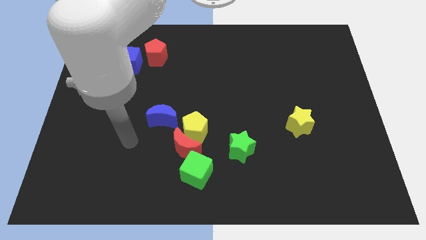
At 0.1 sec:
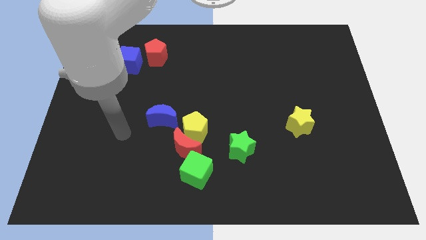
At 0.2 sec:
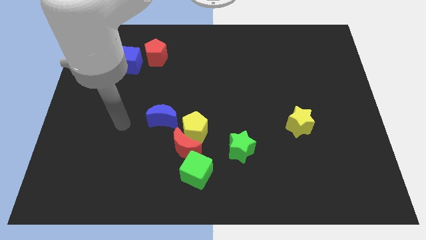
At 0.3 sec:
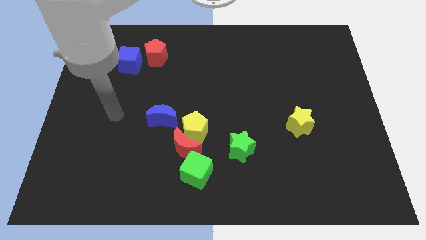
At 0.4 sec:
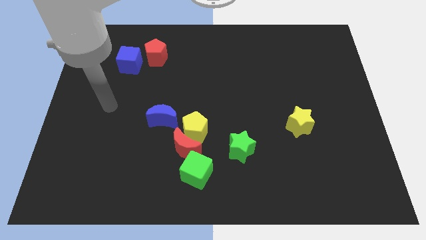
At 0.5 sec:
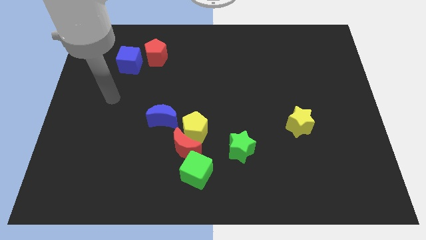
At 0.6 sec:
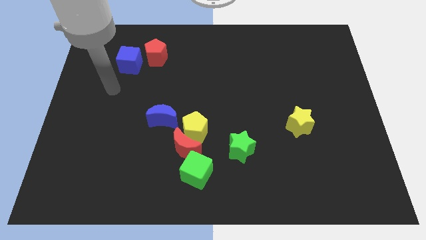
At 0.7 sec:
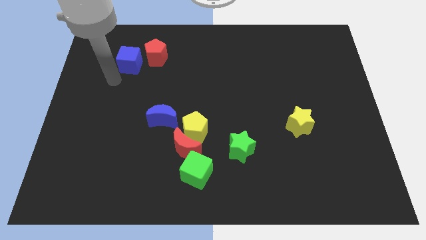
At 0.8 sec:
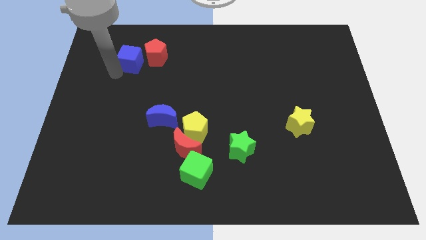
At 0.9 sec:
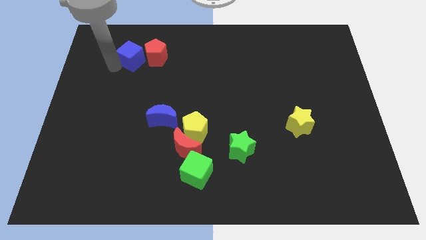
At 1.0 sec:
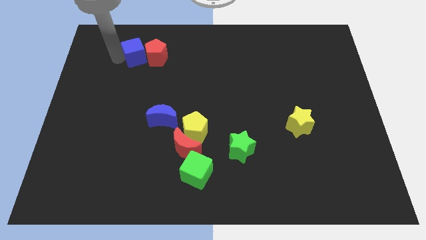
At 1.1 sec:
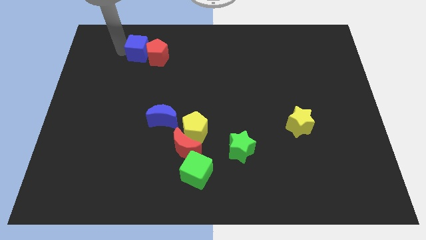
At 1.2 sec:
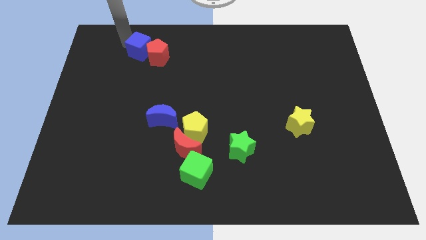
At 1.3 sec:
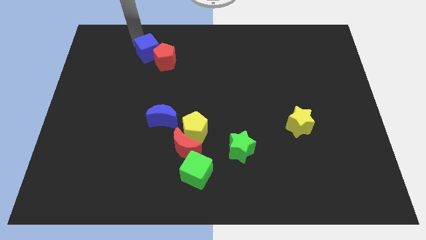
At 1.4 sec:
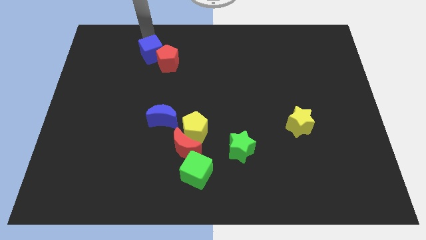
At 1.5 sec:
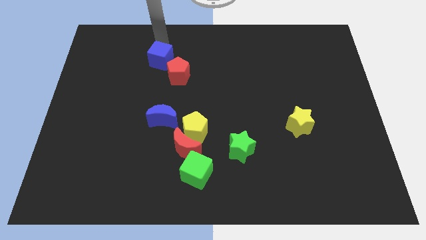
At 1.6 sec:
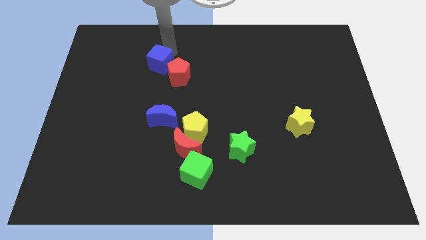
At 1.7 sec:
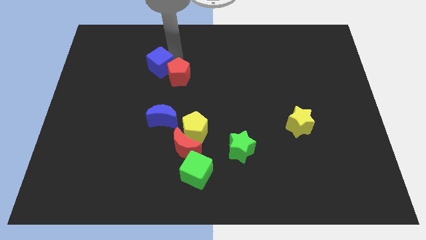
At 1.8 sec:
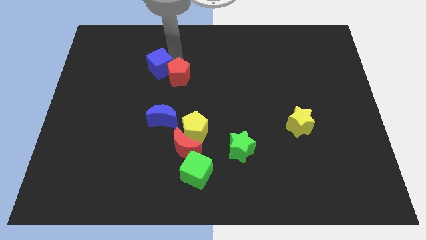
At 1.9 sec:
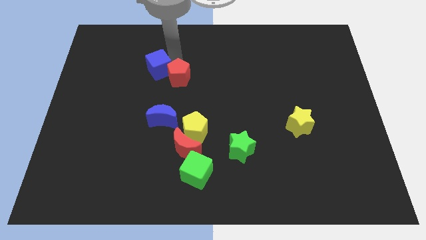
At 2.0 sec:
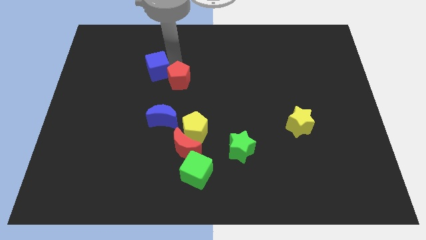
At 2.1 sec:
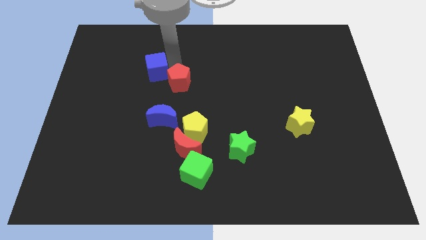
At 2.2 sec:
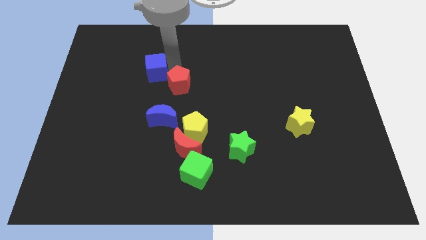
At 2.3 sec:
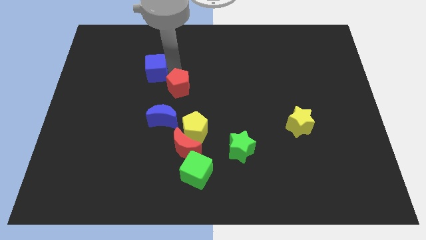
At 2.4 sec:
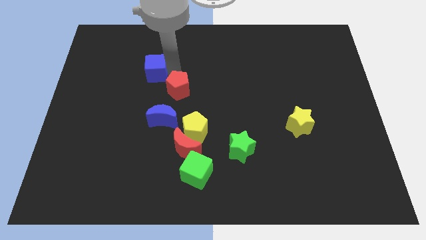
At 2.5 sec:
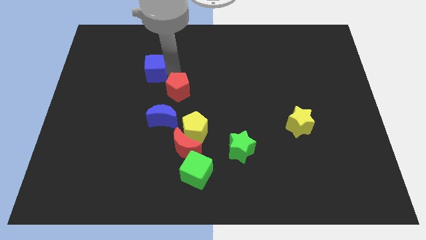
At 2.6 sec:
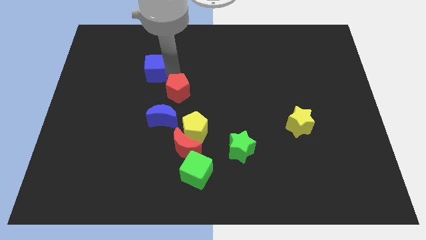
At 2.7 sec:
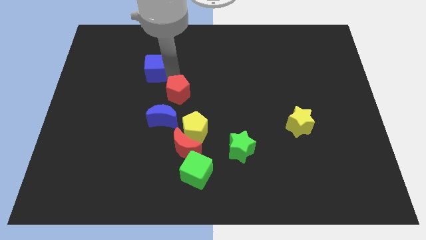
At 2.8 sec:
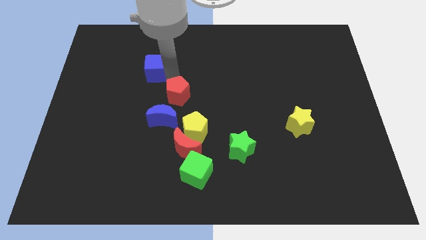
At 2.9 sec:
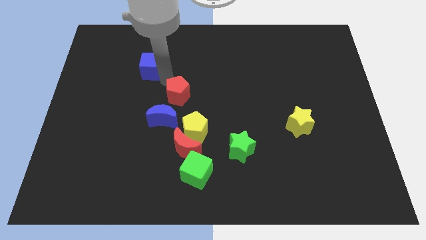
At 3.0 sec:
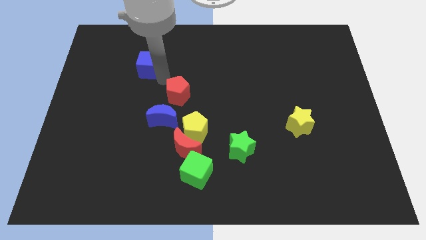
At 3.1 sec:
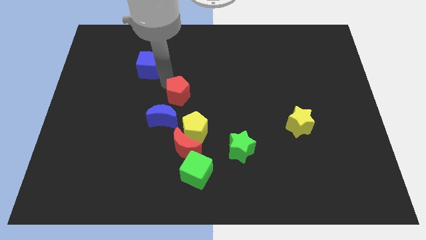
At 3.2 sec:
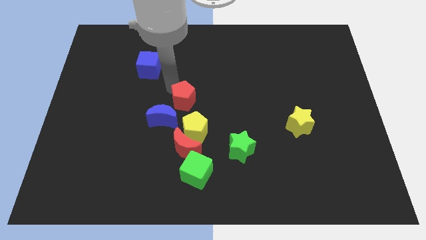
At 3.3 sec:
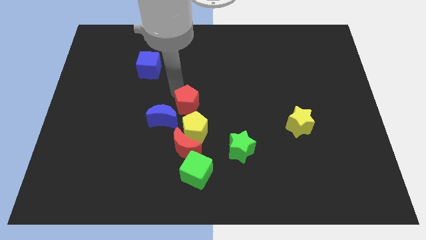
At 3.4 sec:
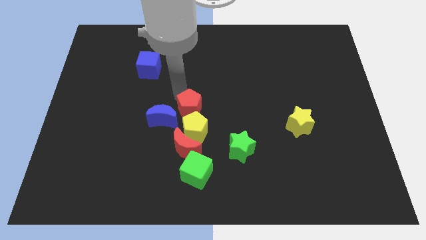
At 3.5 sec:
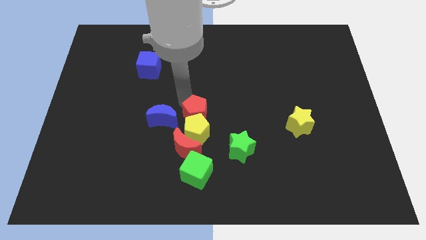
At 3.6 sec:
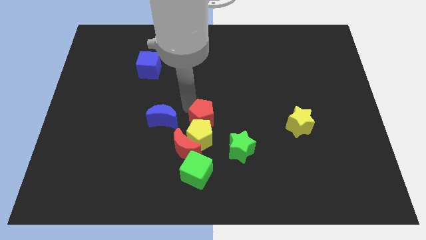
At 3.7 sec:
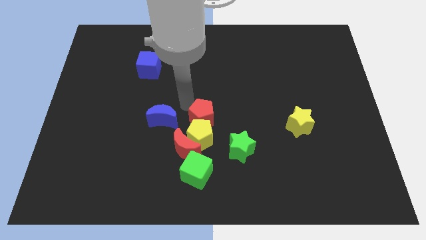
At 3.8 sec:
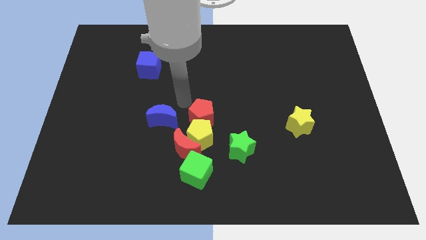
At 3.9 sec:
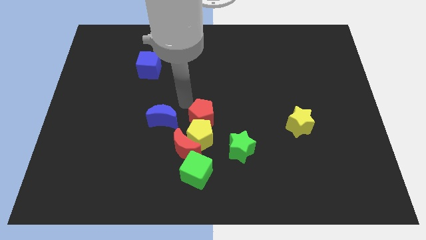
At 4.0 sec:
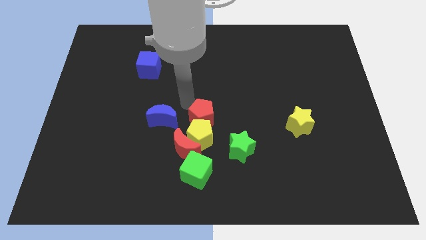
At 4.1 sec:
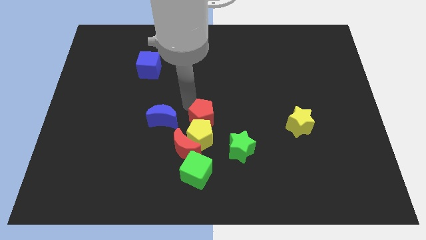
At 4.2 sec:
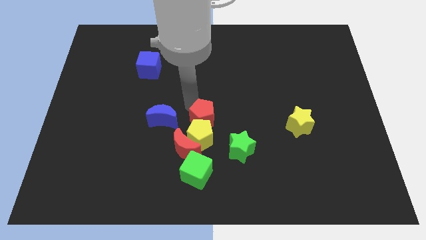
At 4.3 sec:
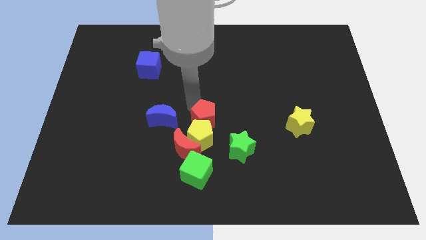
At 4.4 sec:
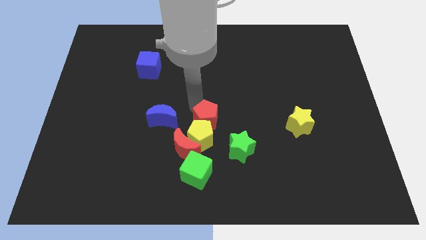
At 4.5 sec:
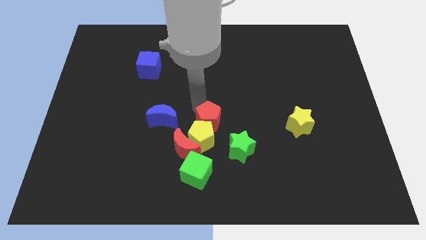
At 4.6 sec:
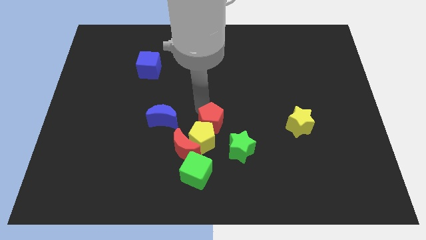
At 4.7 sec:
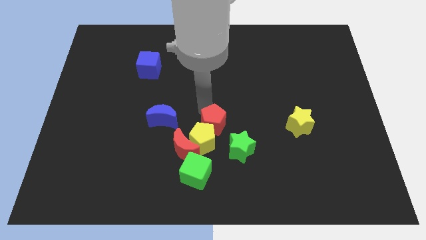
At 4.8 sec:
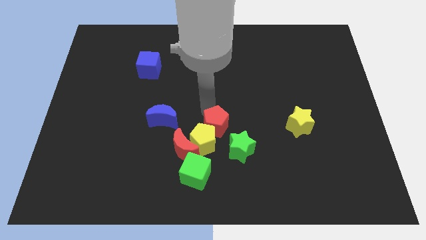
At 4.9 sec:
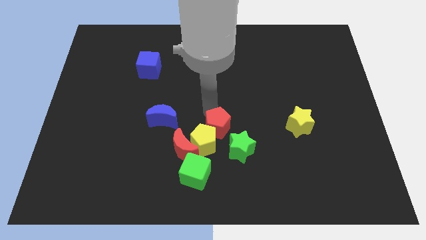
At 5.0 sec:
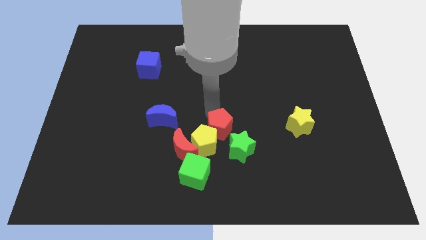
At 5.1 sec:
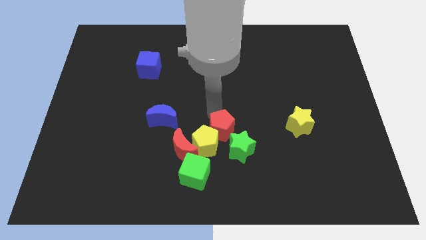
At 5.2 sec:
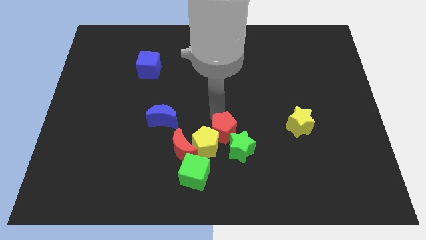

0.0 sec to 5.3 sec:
put the red pentagon close to the green star

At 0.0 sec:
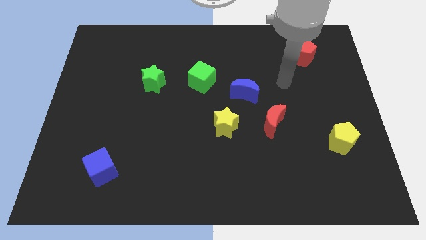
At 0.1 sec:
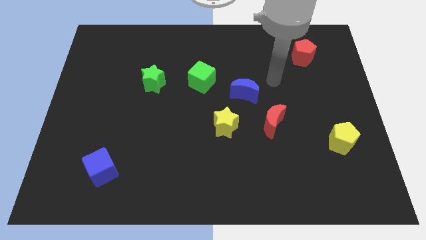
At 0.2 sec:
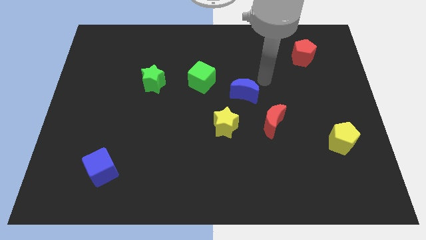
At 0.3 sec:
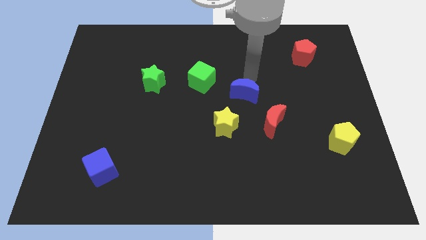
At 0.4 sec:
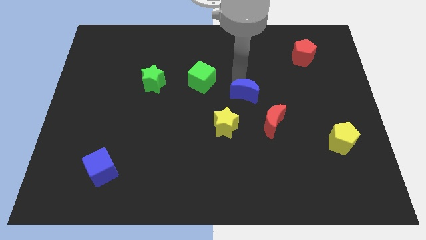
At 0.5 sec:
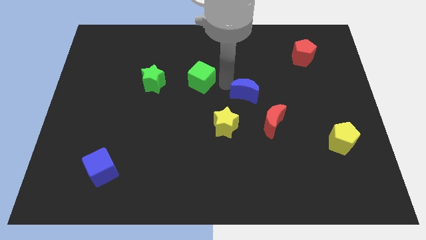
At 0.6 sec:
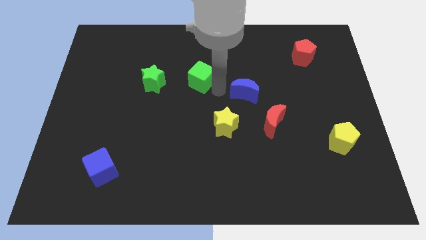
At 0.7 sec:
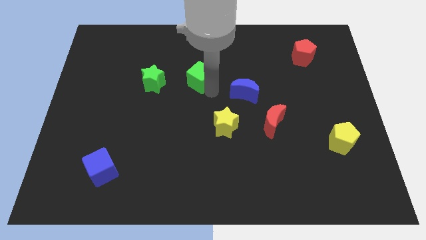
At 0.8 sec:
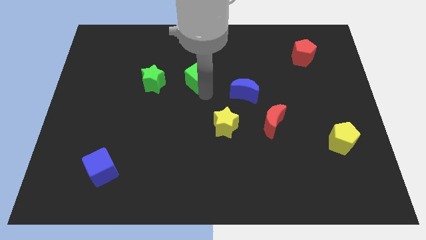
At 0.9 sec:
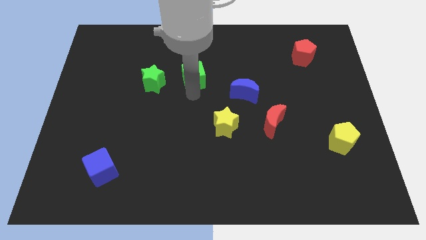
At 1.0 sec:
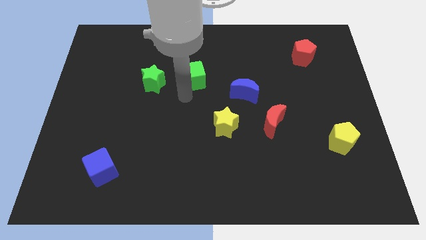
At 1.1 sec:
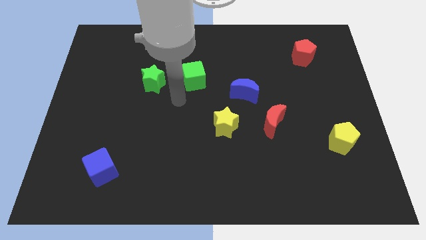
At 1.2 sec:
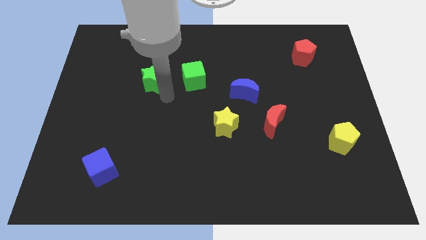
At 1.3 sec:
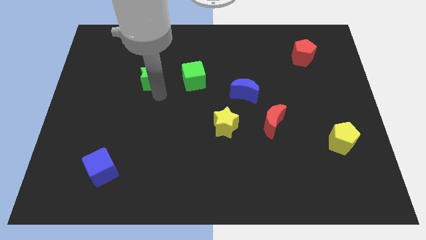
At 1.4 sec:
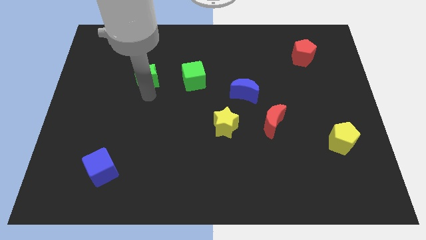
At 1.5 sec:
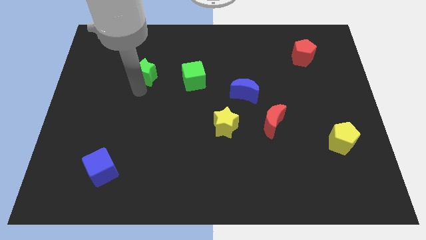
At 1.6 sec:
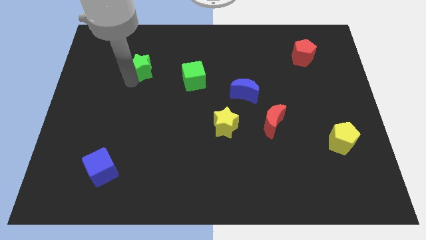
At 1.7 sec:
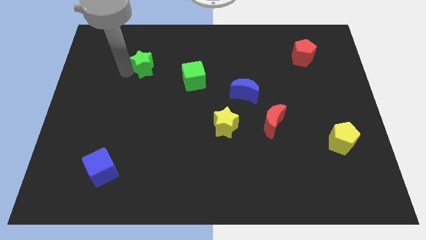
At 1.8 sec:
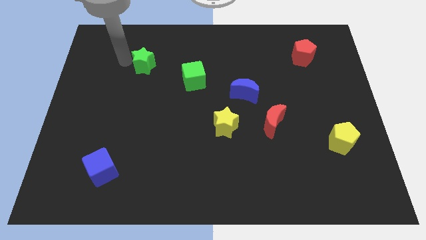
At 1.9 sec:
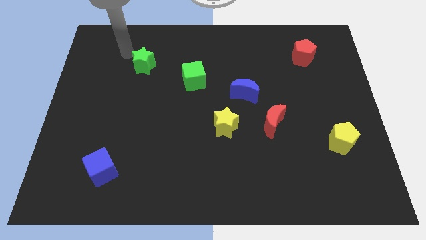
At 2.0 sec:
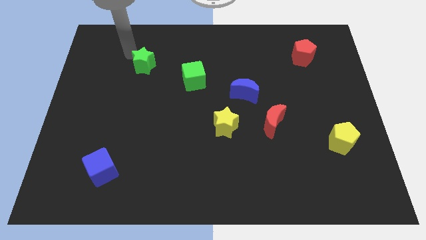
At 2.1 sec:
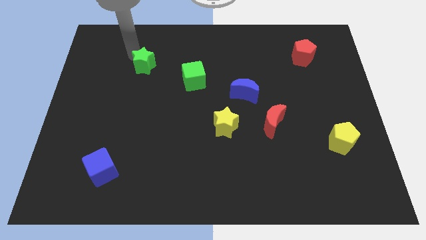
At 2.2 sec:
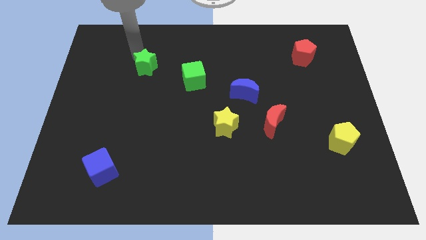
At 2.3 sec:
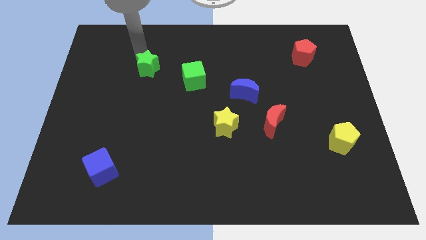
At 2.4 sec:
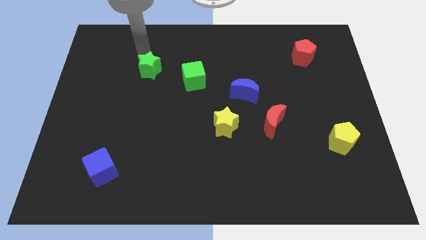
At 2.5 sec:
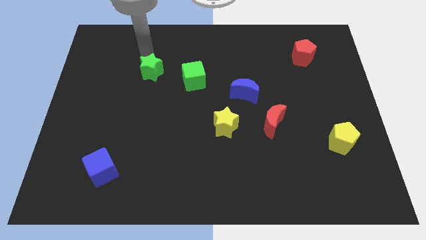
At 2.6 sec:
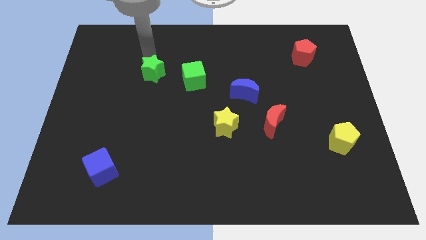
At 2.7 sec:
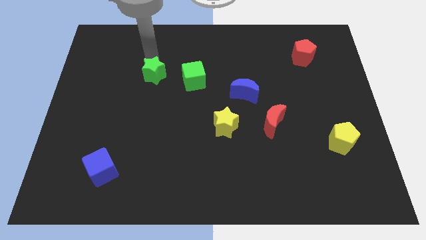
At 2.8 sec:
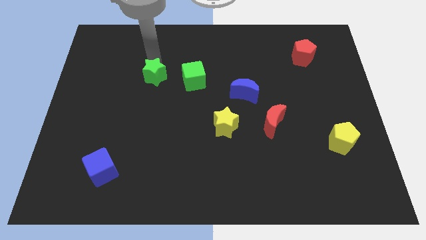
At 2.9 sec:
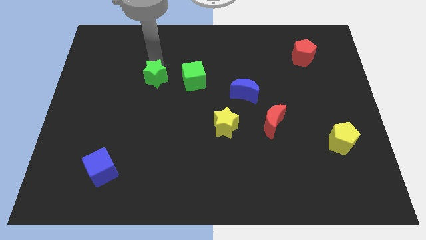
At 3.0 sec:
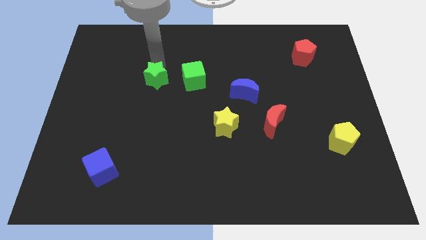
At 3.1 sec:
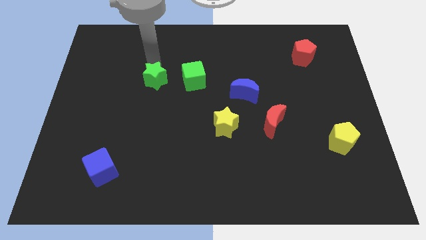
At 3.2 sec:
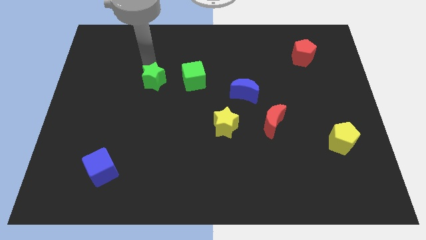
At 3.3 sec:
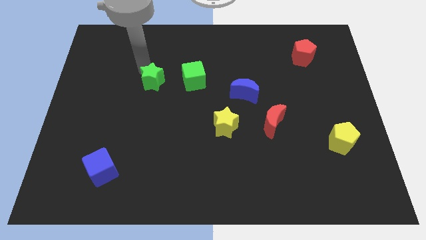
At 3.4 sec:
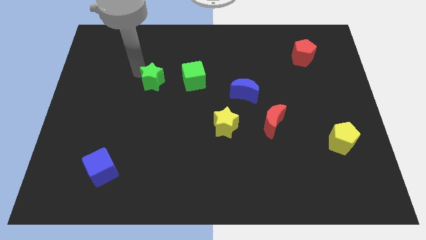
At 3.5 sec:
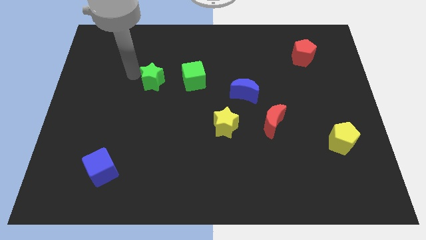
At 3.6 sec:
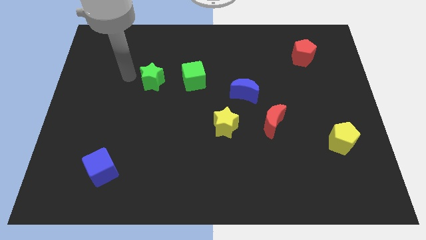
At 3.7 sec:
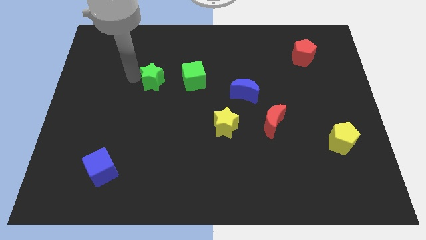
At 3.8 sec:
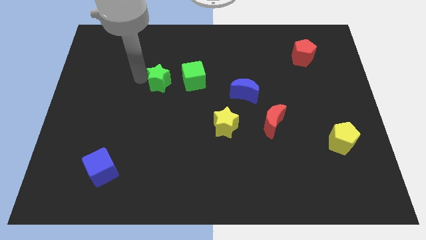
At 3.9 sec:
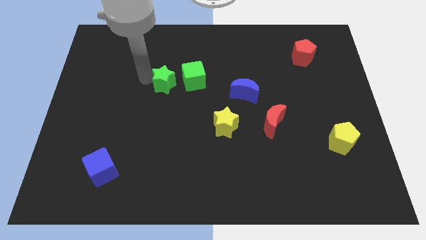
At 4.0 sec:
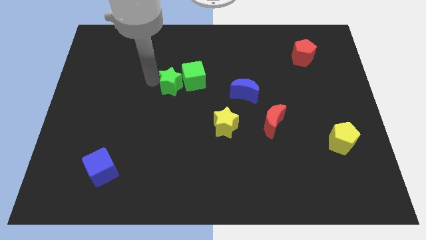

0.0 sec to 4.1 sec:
slide the green star to the green cube
